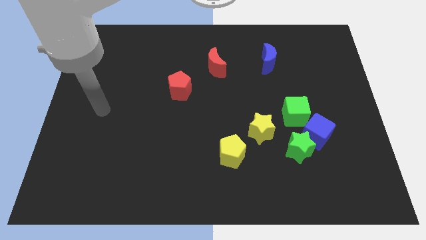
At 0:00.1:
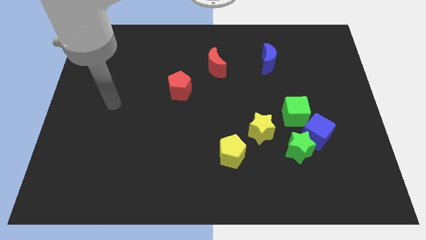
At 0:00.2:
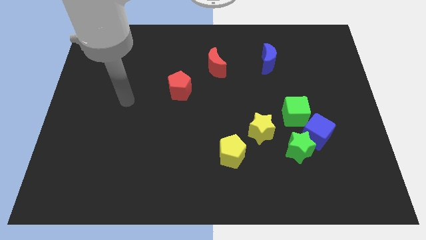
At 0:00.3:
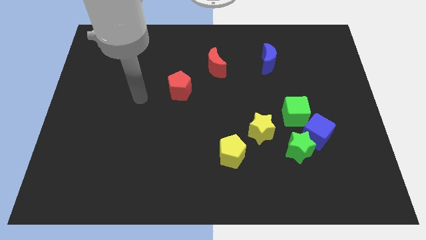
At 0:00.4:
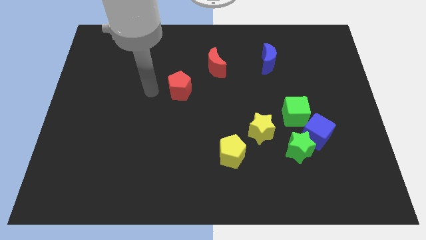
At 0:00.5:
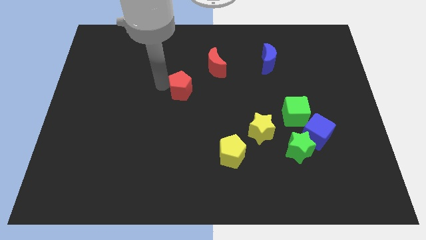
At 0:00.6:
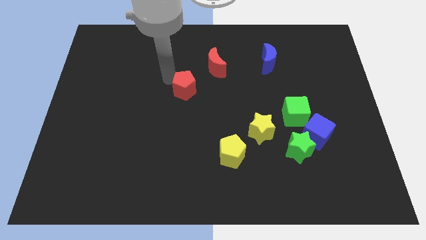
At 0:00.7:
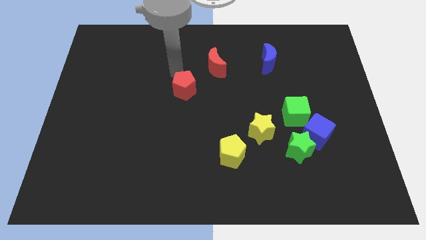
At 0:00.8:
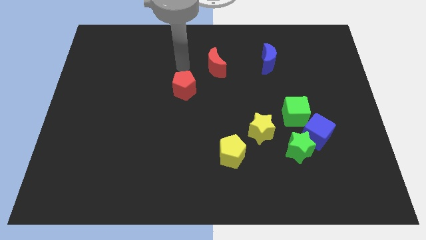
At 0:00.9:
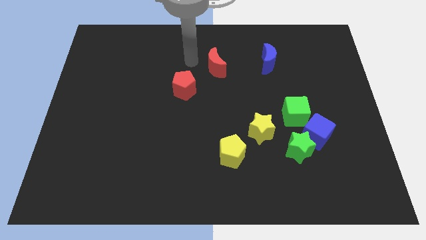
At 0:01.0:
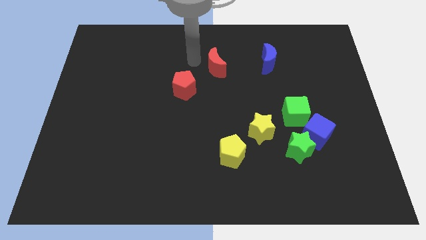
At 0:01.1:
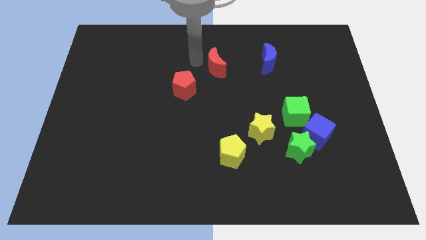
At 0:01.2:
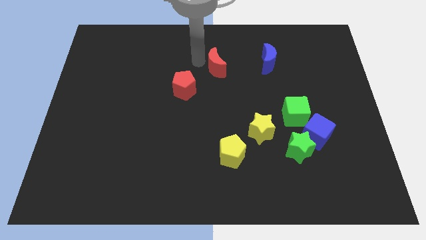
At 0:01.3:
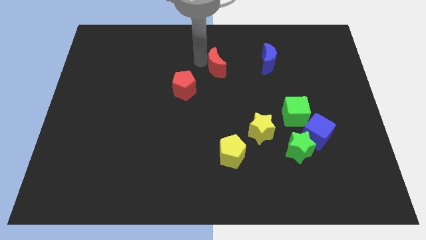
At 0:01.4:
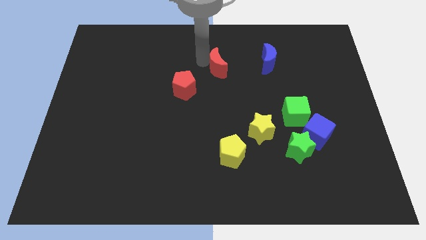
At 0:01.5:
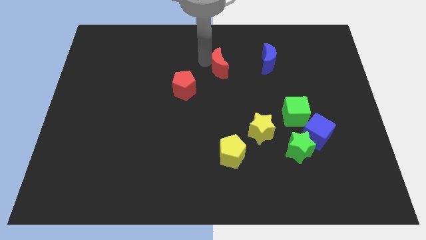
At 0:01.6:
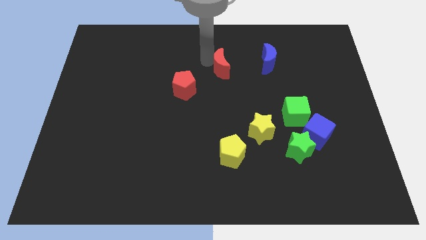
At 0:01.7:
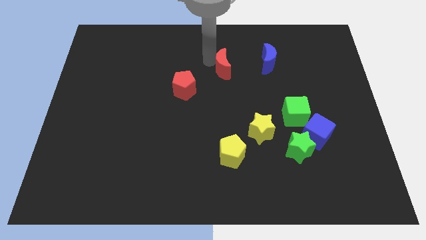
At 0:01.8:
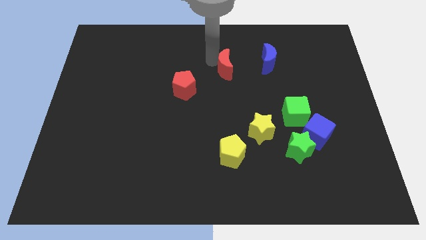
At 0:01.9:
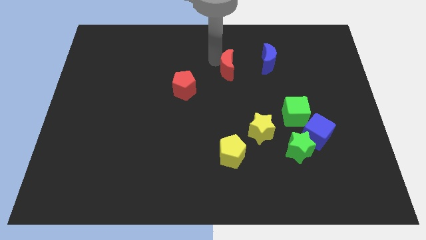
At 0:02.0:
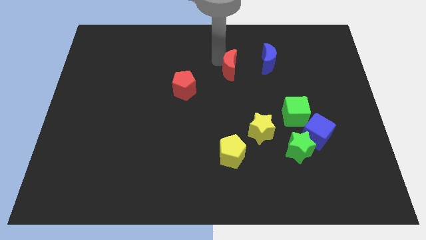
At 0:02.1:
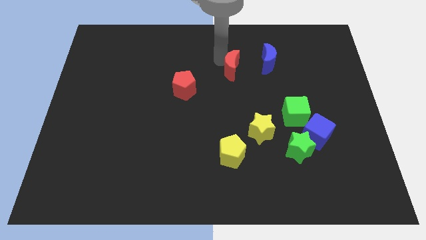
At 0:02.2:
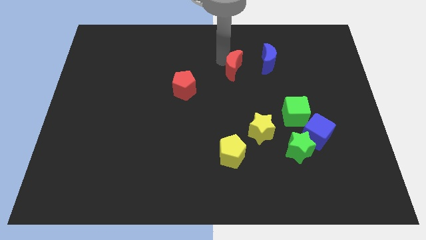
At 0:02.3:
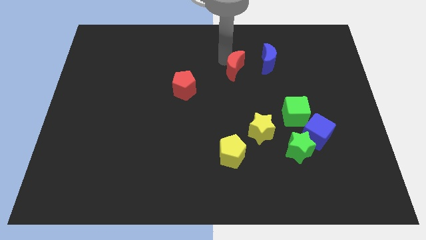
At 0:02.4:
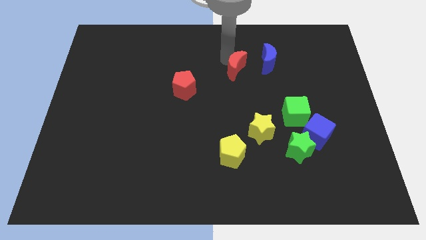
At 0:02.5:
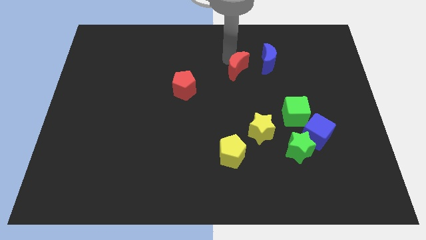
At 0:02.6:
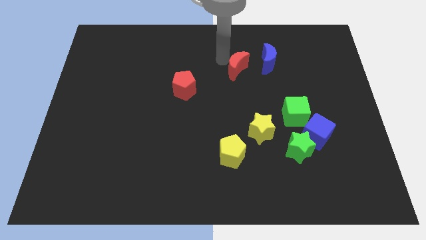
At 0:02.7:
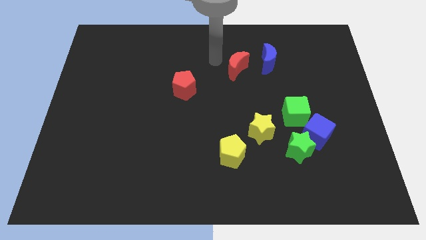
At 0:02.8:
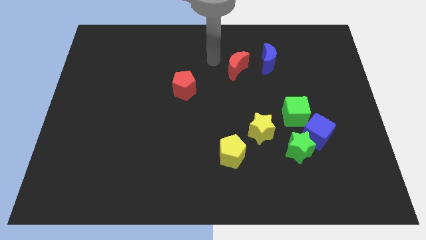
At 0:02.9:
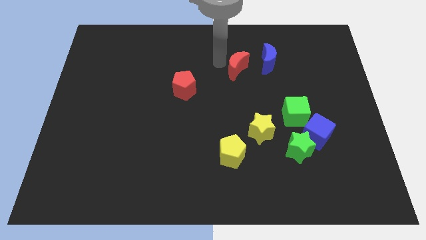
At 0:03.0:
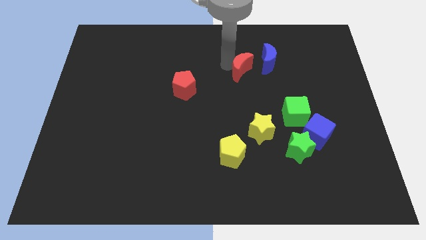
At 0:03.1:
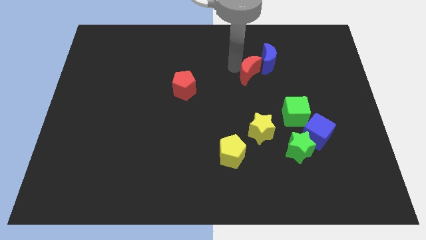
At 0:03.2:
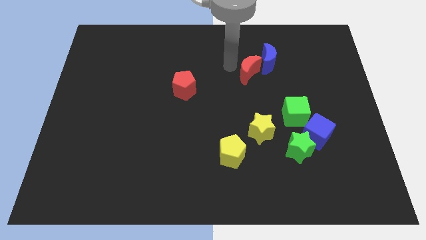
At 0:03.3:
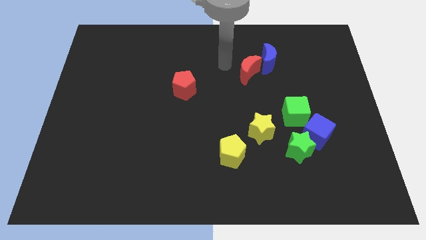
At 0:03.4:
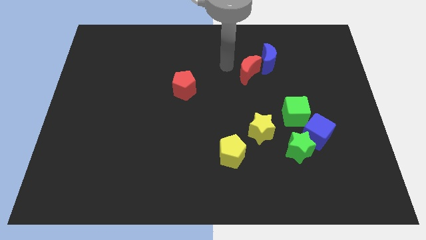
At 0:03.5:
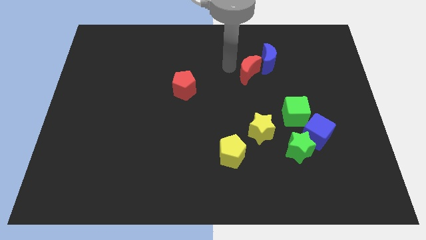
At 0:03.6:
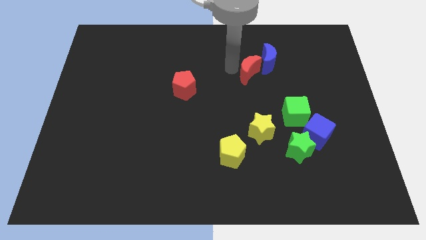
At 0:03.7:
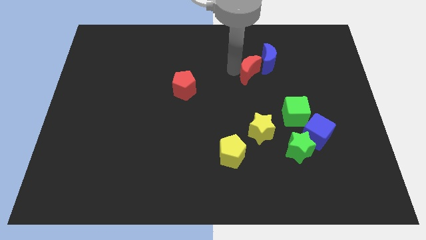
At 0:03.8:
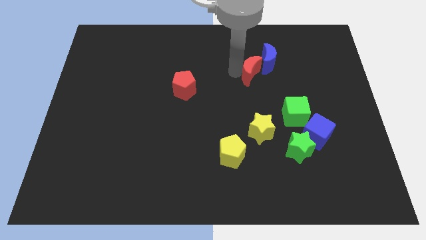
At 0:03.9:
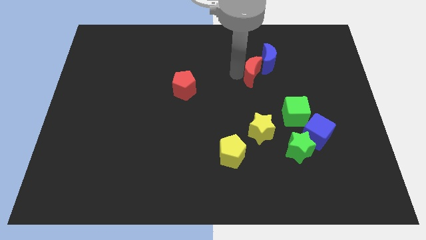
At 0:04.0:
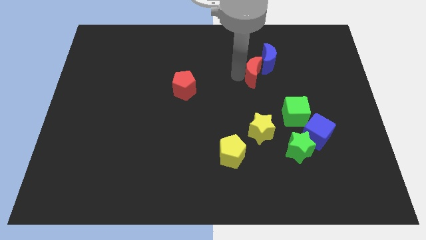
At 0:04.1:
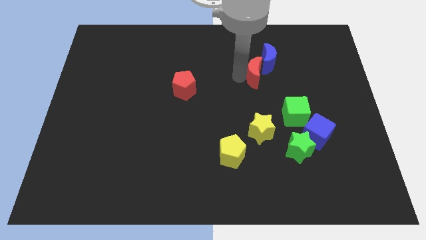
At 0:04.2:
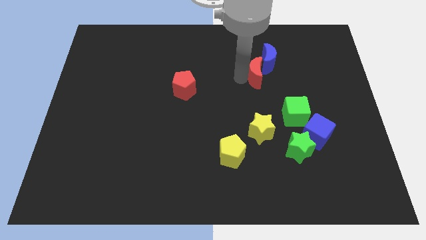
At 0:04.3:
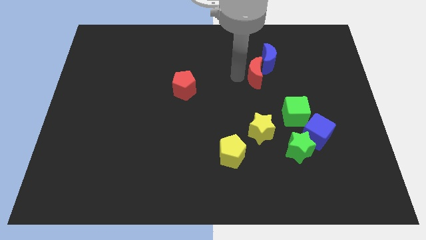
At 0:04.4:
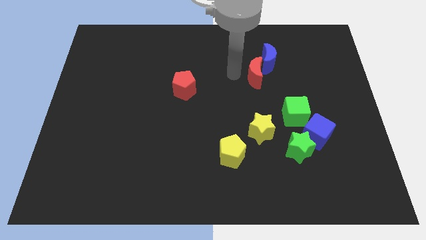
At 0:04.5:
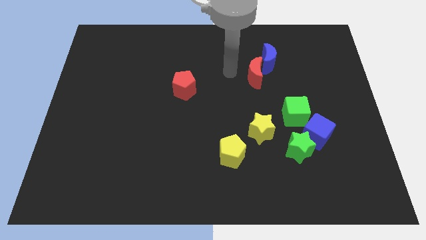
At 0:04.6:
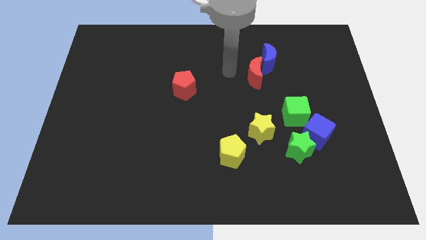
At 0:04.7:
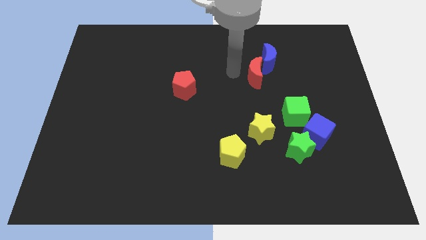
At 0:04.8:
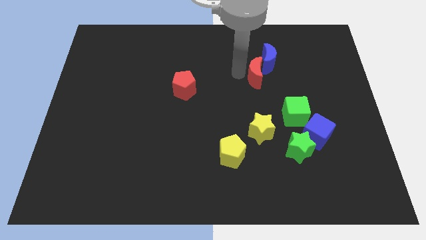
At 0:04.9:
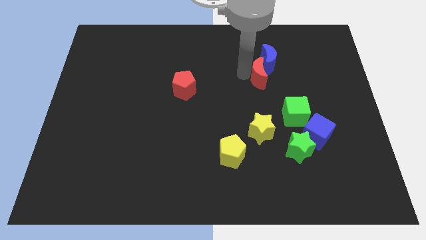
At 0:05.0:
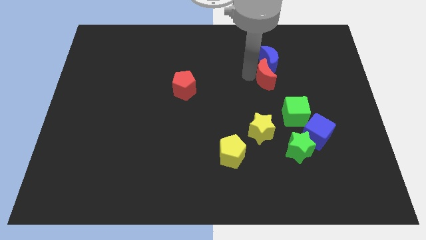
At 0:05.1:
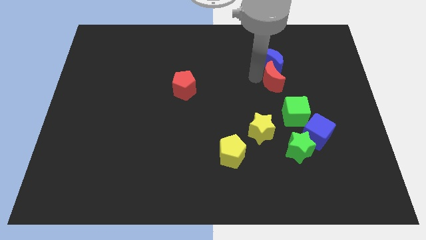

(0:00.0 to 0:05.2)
push the red moon diagonally down and to the right of the blue moon

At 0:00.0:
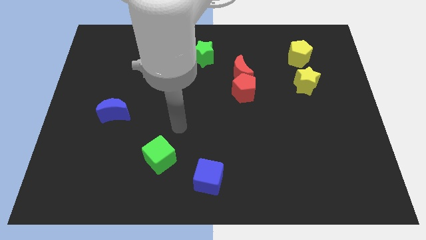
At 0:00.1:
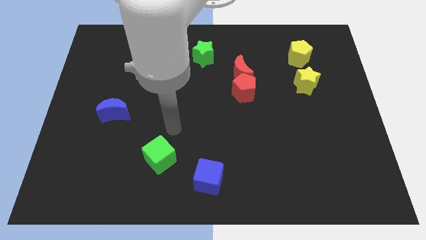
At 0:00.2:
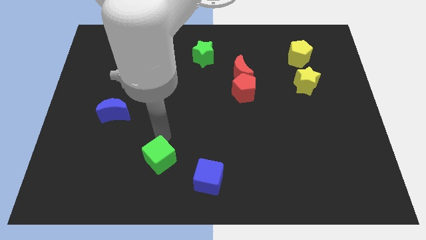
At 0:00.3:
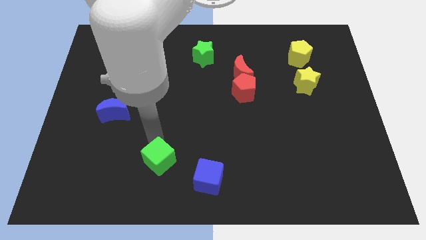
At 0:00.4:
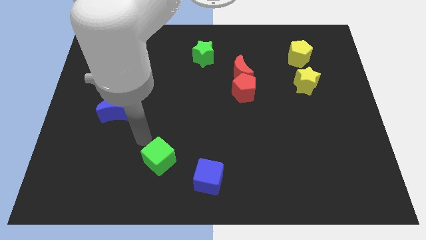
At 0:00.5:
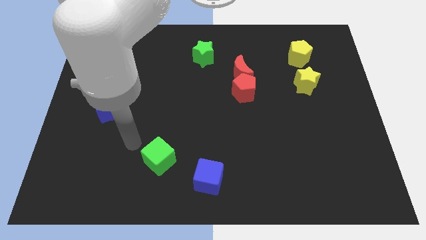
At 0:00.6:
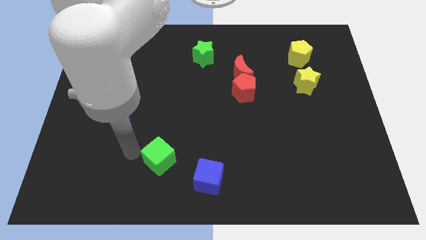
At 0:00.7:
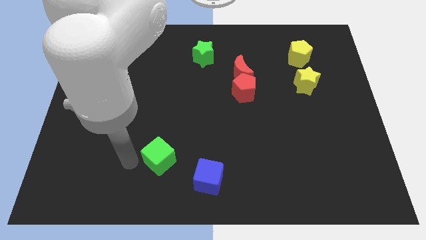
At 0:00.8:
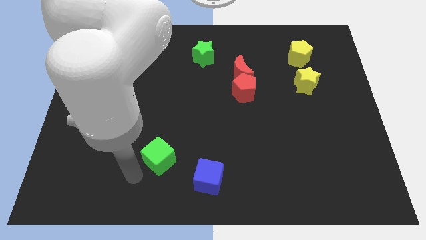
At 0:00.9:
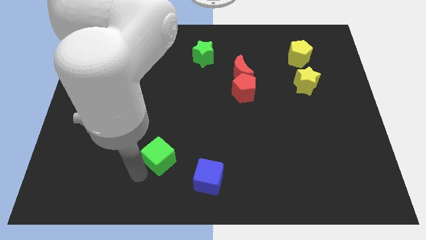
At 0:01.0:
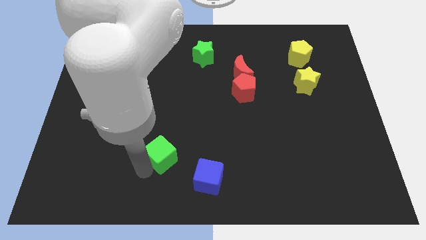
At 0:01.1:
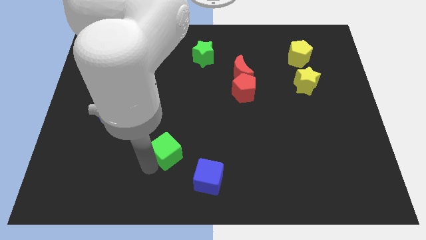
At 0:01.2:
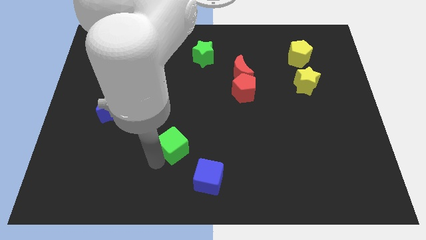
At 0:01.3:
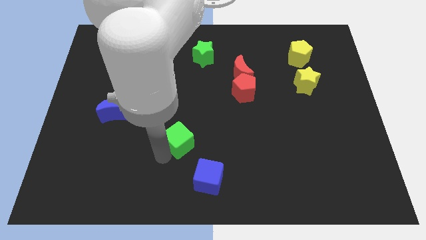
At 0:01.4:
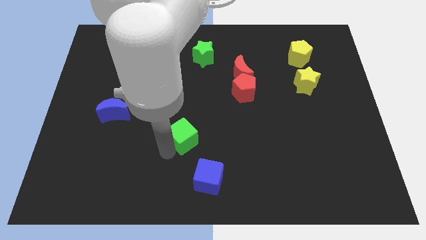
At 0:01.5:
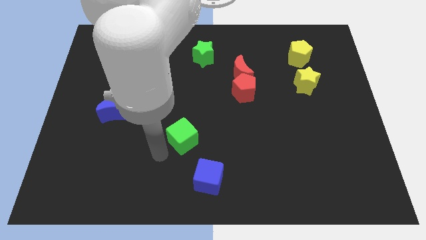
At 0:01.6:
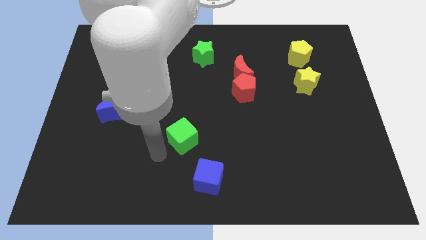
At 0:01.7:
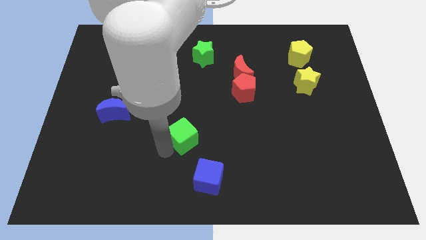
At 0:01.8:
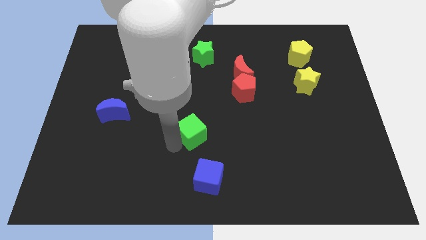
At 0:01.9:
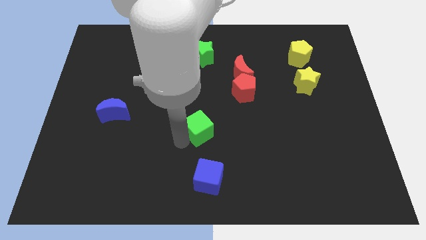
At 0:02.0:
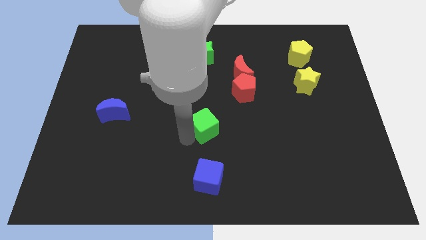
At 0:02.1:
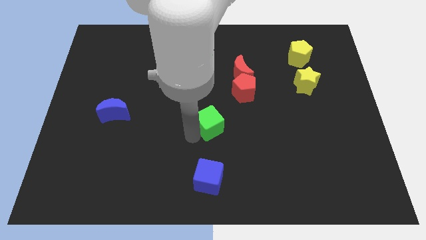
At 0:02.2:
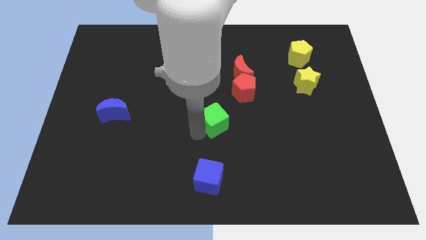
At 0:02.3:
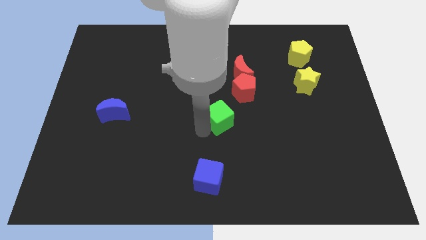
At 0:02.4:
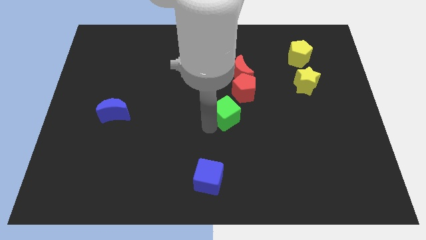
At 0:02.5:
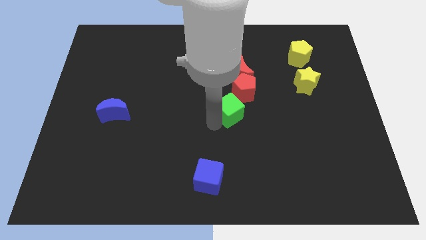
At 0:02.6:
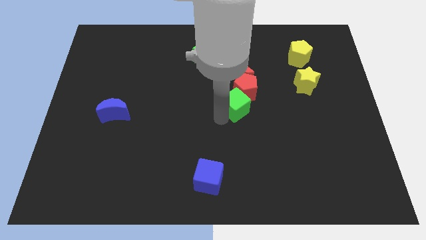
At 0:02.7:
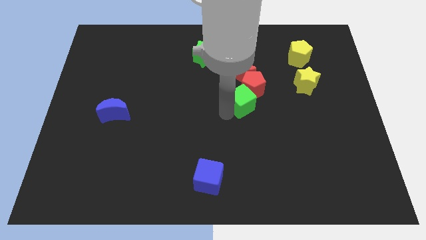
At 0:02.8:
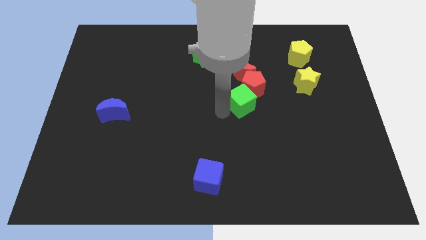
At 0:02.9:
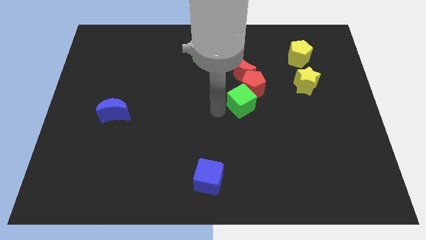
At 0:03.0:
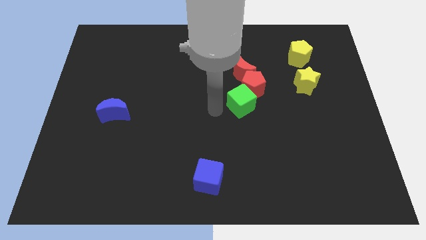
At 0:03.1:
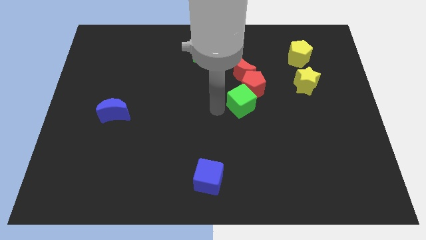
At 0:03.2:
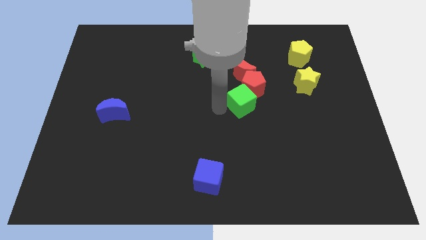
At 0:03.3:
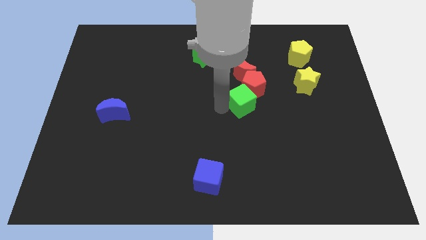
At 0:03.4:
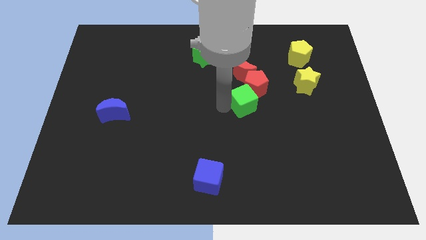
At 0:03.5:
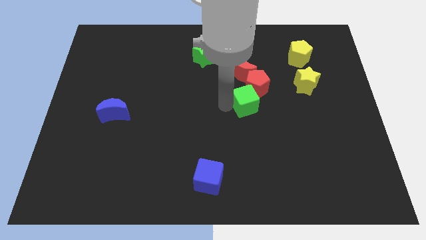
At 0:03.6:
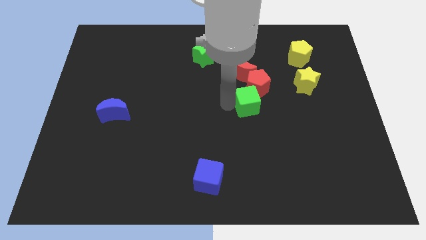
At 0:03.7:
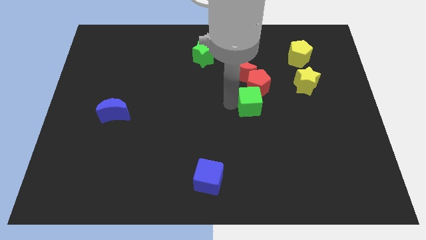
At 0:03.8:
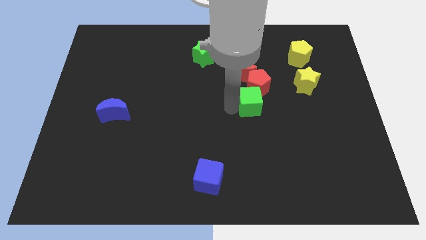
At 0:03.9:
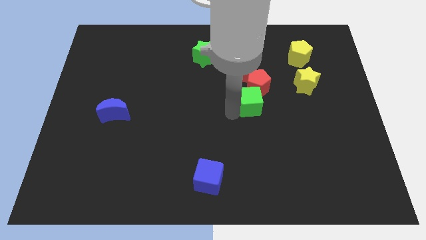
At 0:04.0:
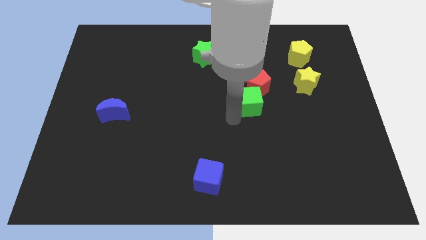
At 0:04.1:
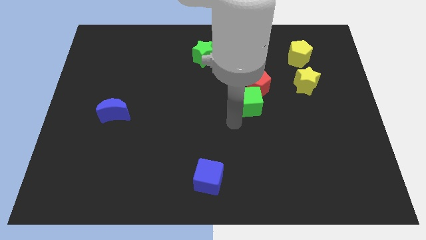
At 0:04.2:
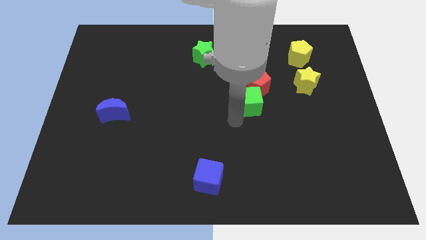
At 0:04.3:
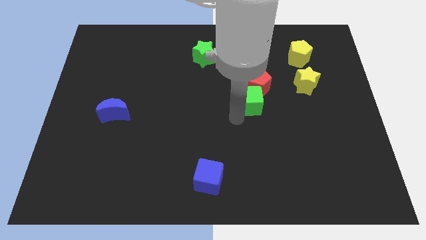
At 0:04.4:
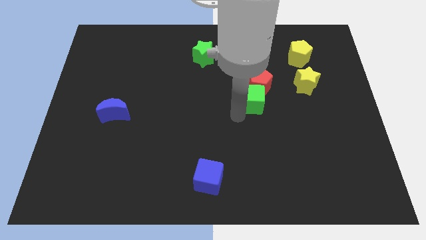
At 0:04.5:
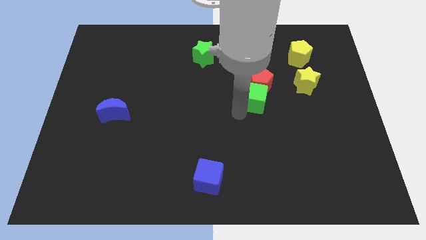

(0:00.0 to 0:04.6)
push the green cube diagonally down and to the right of the red moon
